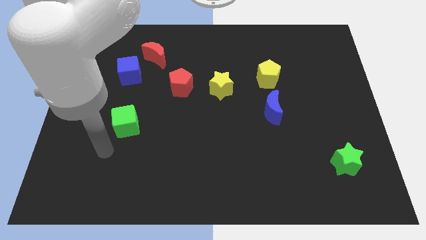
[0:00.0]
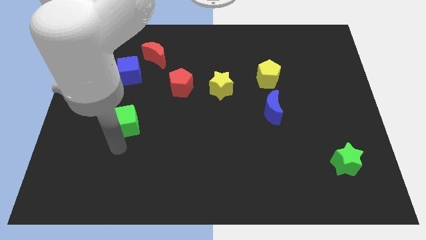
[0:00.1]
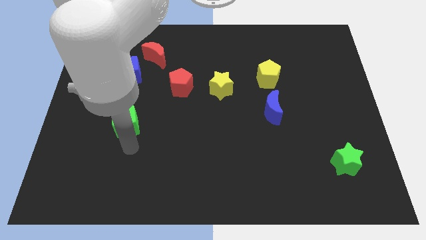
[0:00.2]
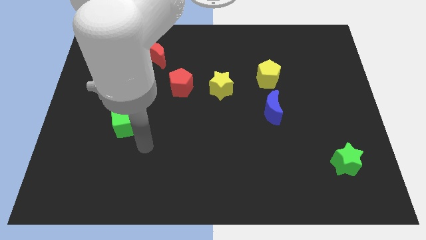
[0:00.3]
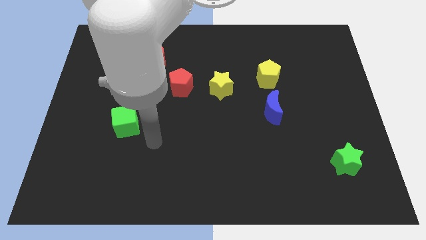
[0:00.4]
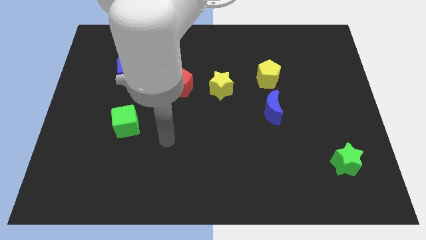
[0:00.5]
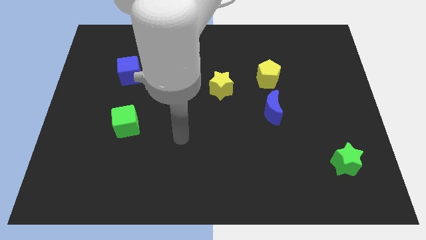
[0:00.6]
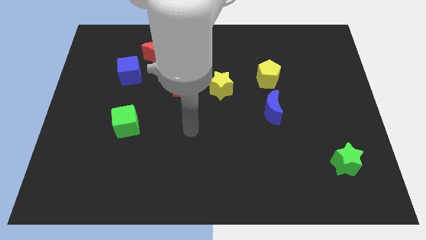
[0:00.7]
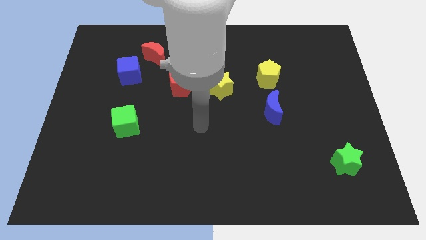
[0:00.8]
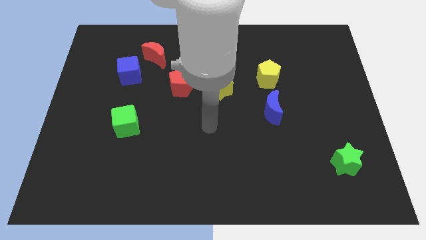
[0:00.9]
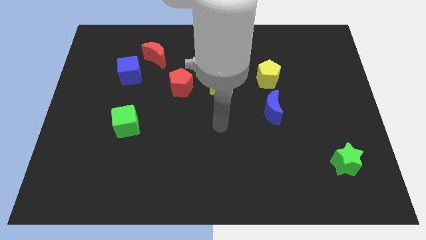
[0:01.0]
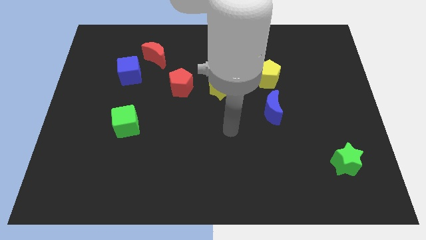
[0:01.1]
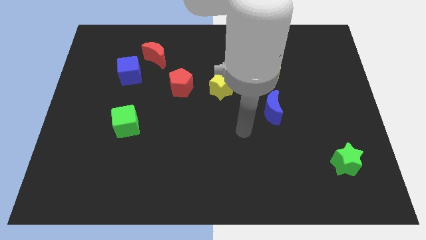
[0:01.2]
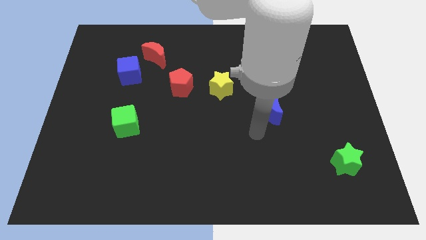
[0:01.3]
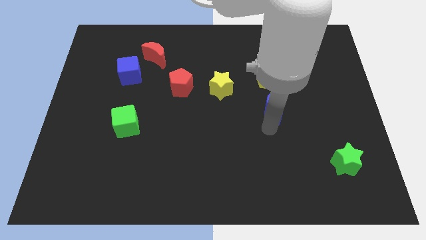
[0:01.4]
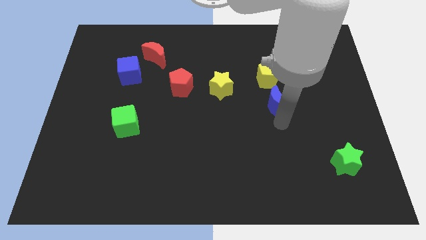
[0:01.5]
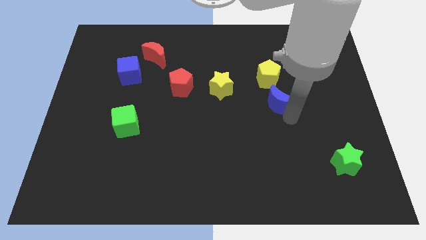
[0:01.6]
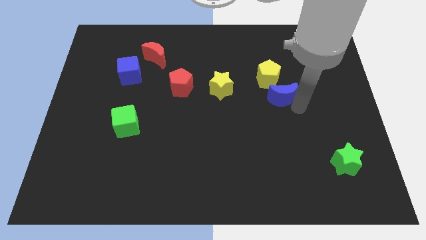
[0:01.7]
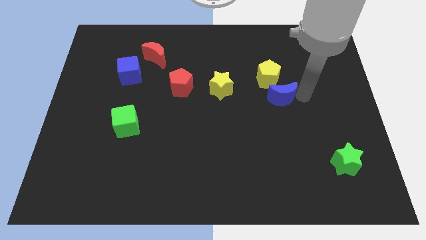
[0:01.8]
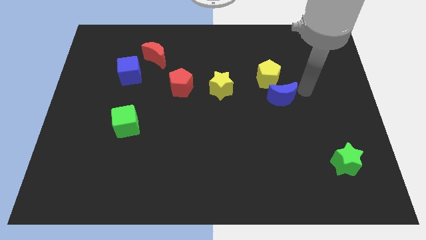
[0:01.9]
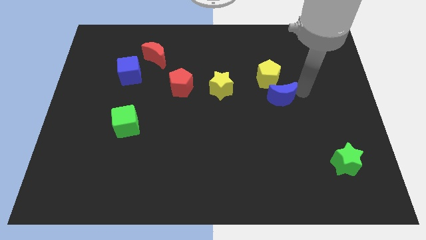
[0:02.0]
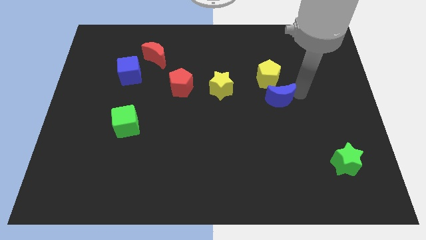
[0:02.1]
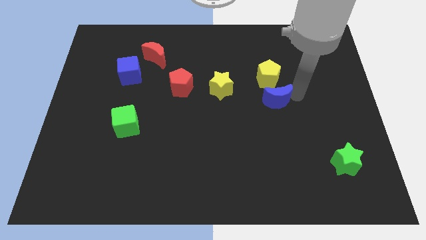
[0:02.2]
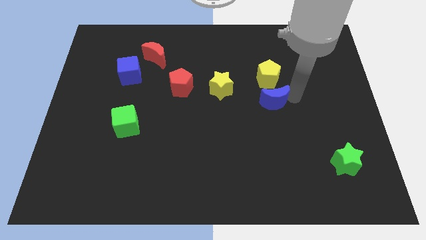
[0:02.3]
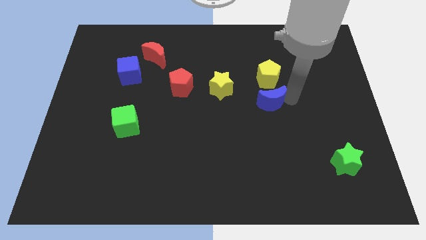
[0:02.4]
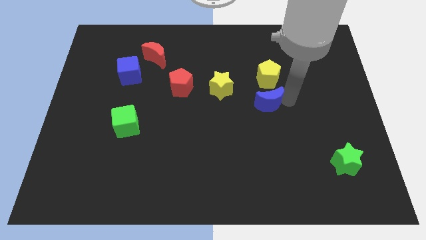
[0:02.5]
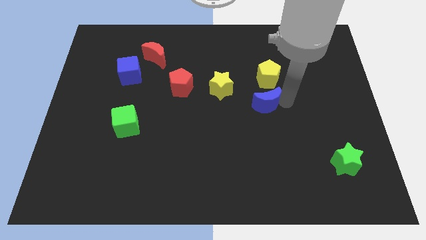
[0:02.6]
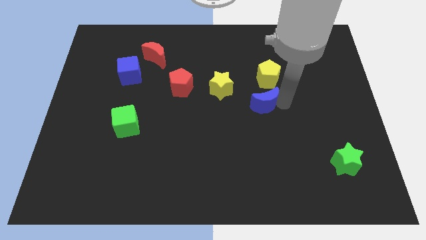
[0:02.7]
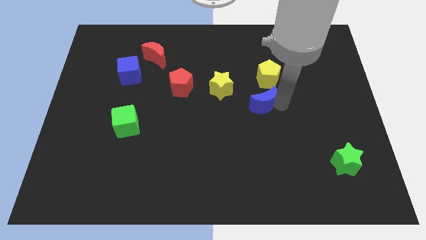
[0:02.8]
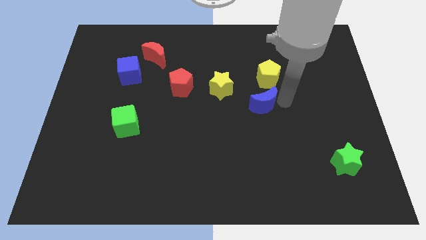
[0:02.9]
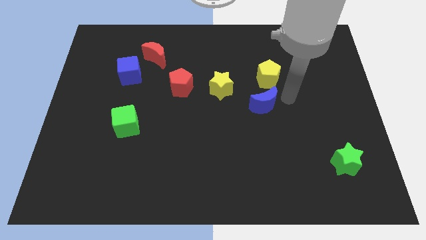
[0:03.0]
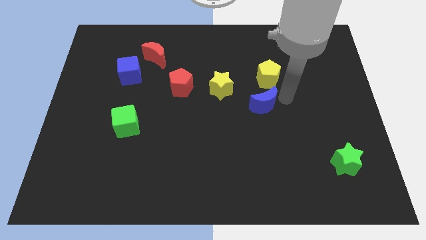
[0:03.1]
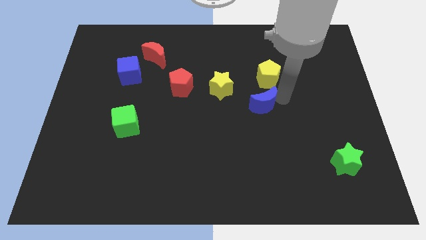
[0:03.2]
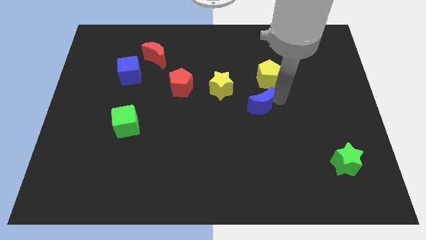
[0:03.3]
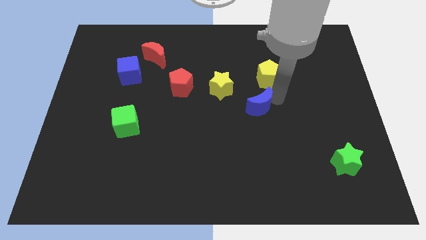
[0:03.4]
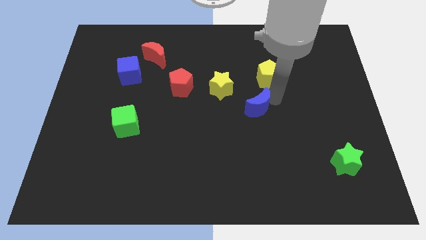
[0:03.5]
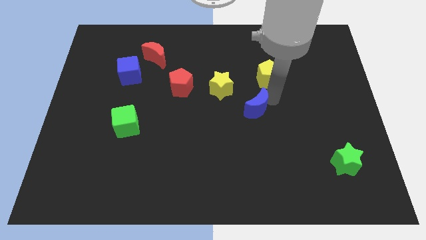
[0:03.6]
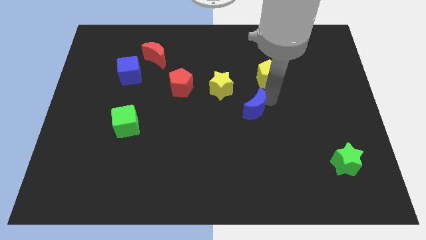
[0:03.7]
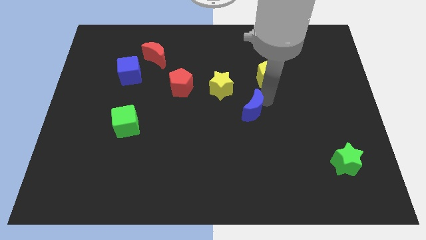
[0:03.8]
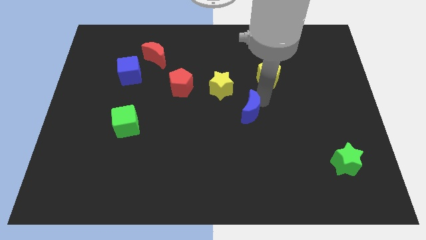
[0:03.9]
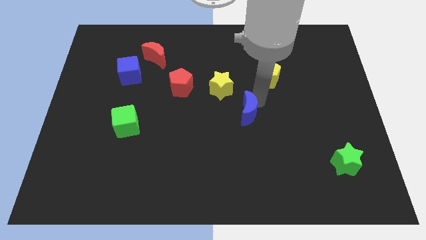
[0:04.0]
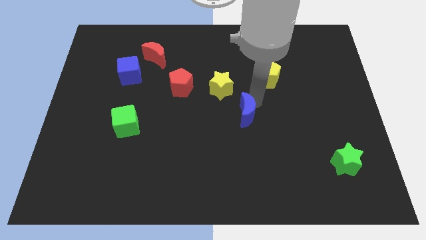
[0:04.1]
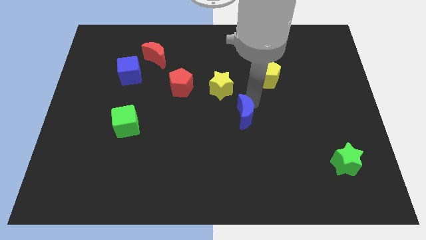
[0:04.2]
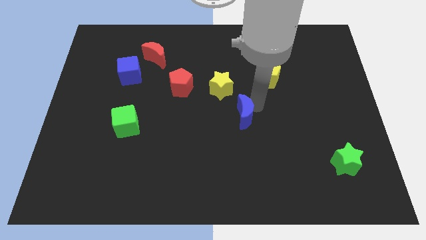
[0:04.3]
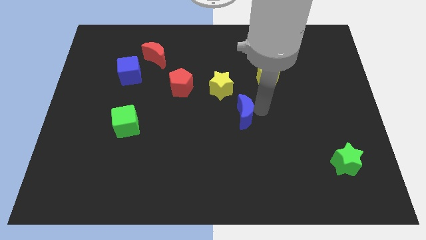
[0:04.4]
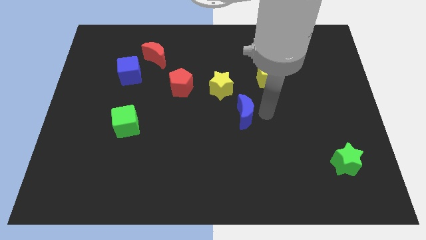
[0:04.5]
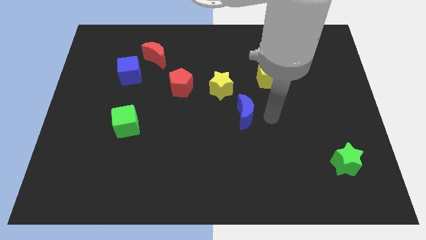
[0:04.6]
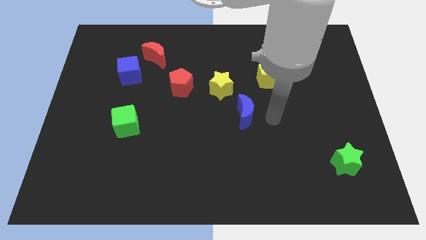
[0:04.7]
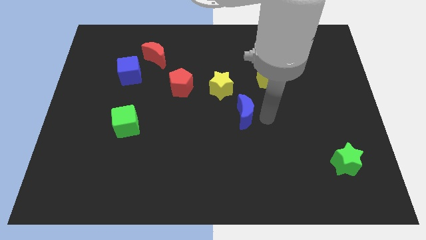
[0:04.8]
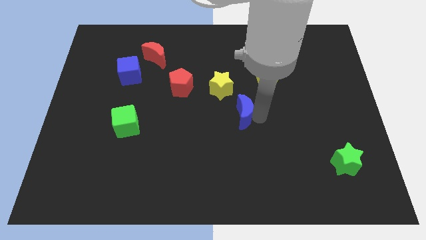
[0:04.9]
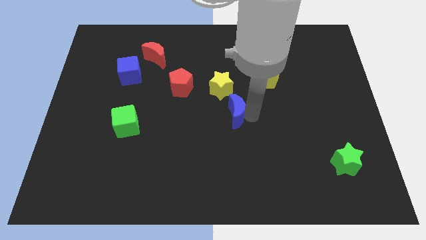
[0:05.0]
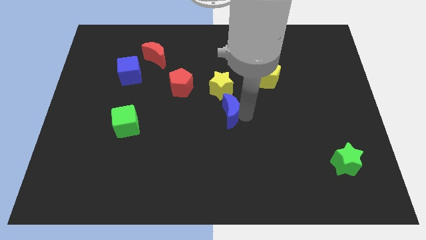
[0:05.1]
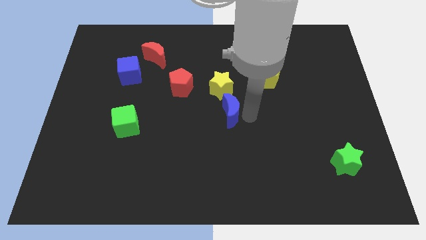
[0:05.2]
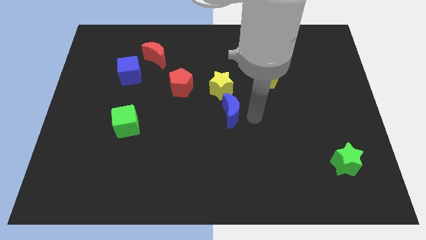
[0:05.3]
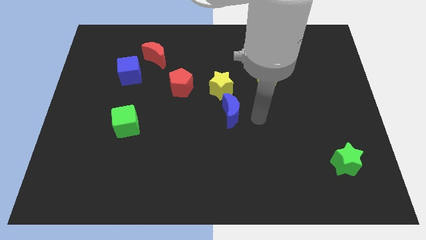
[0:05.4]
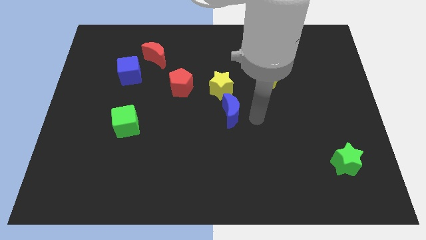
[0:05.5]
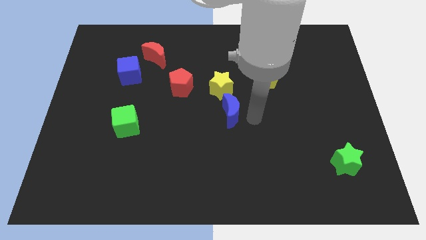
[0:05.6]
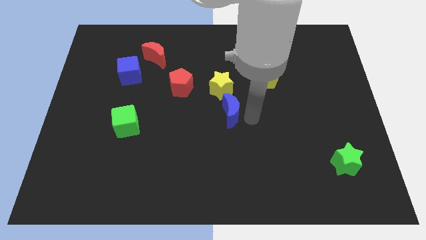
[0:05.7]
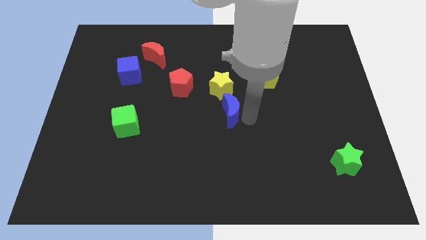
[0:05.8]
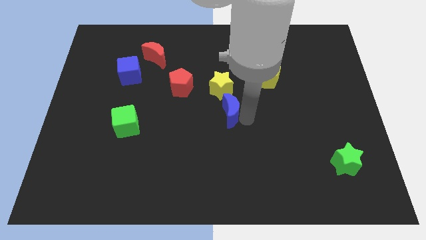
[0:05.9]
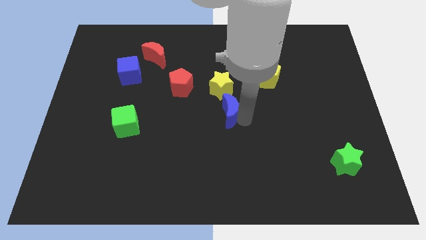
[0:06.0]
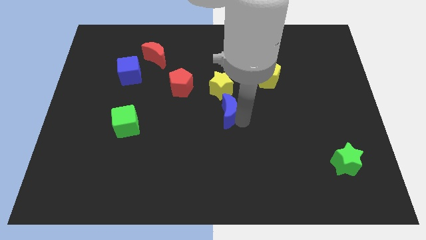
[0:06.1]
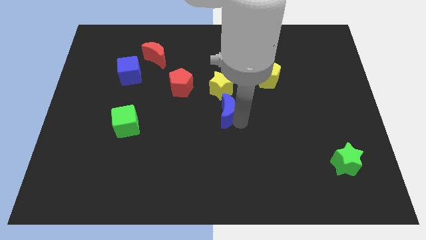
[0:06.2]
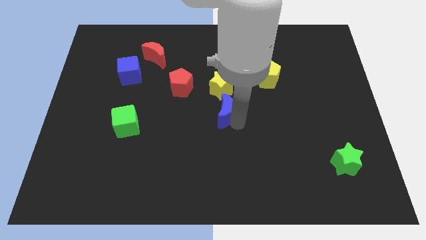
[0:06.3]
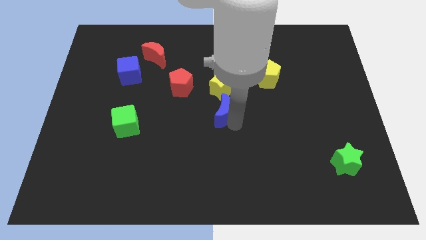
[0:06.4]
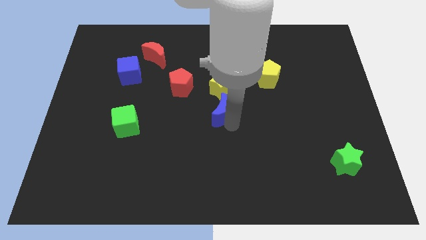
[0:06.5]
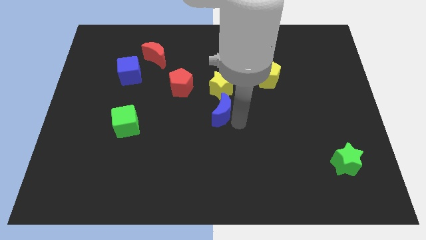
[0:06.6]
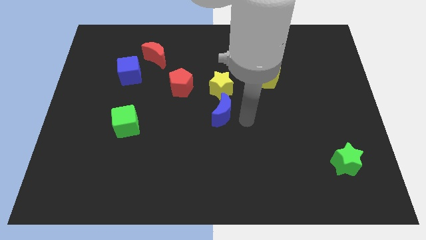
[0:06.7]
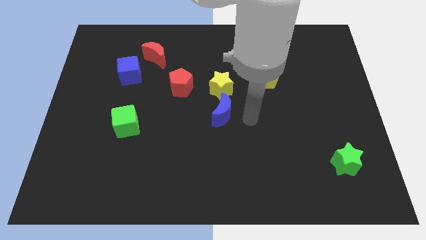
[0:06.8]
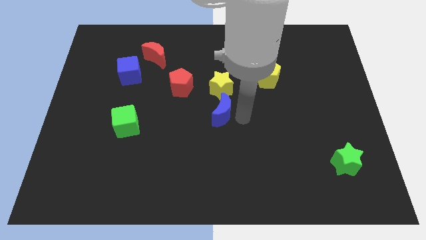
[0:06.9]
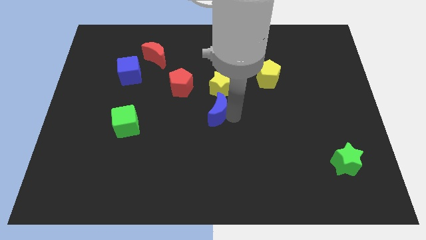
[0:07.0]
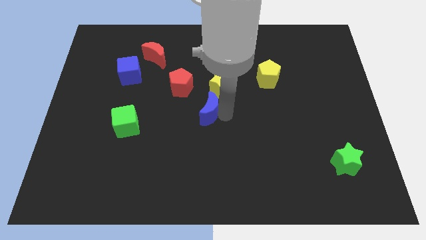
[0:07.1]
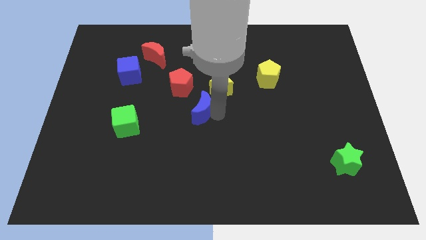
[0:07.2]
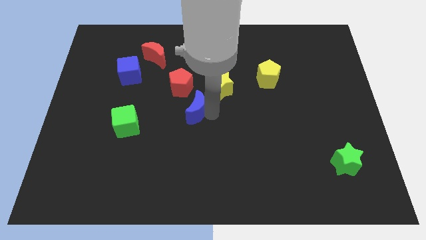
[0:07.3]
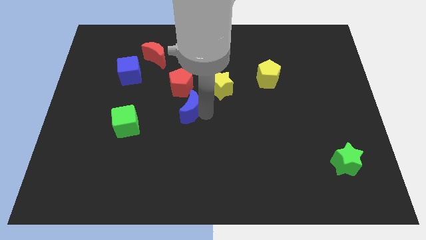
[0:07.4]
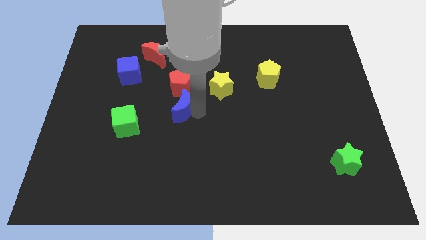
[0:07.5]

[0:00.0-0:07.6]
slide the blue moon to the left

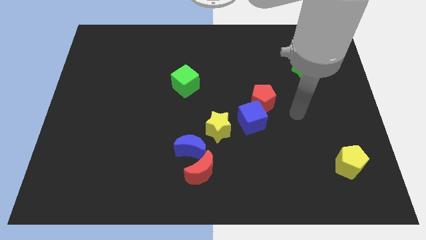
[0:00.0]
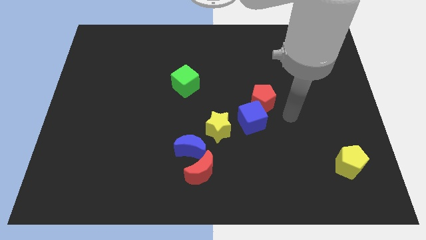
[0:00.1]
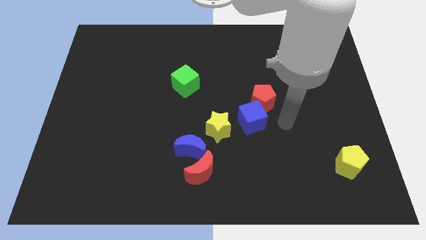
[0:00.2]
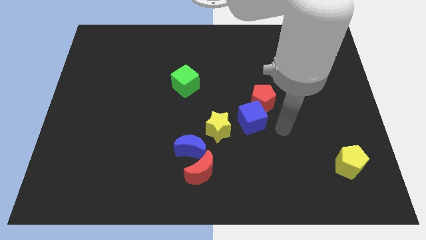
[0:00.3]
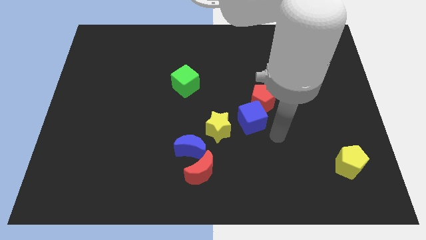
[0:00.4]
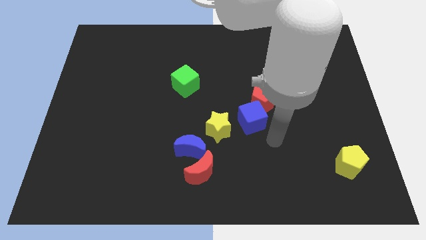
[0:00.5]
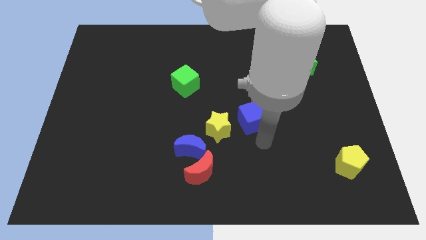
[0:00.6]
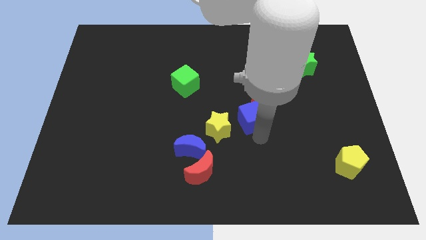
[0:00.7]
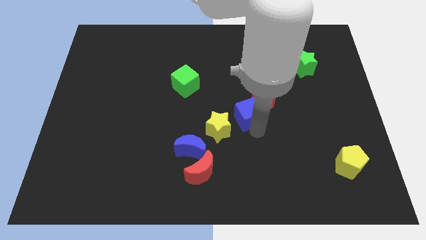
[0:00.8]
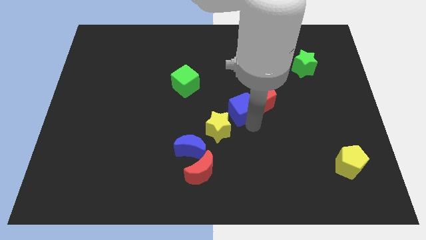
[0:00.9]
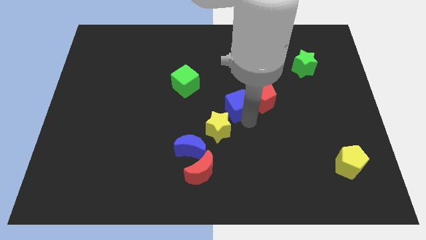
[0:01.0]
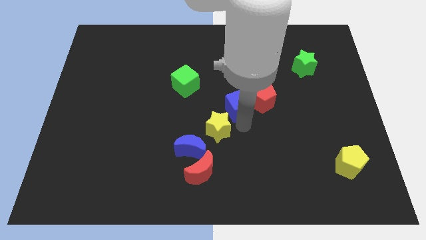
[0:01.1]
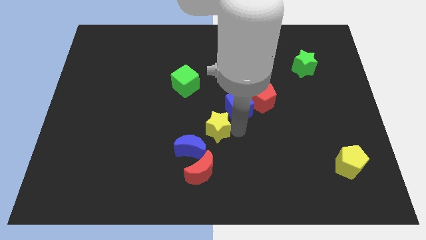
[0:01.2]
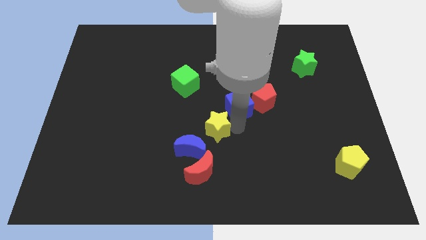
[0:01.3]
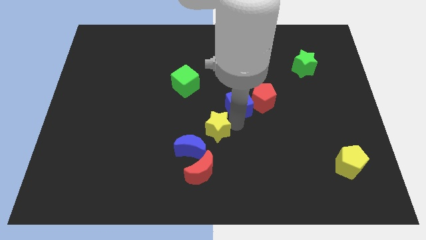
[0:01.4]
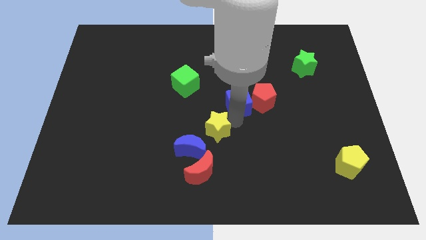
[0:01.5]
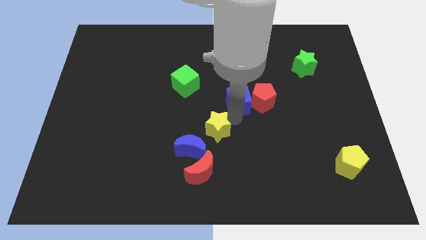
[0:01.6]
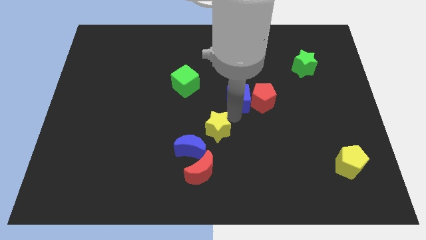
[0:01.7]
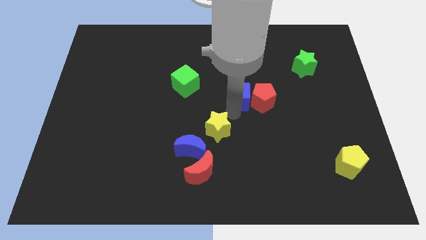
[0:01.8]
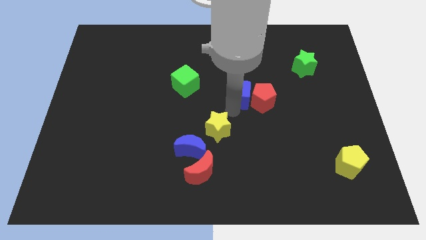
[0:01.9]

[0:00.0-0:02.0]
slightly push the blue cube up
